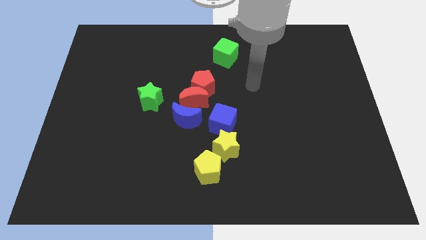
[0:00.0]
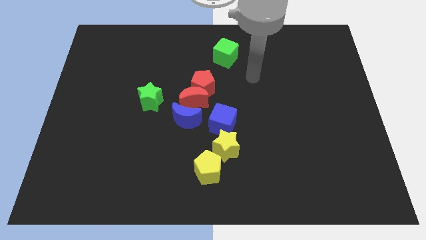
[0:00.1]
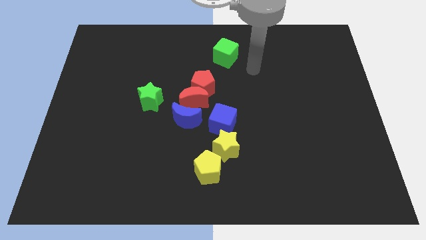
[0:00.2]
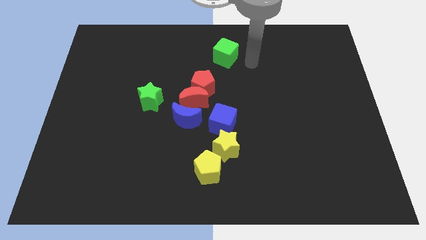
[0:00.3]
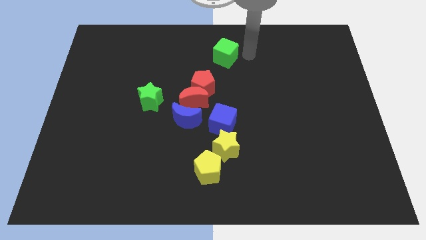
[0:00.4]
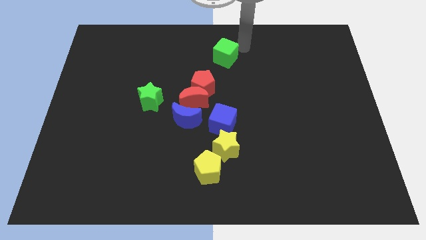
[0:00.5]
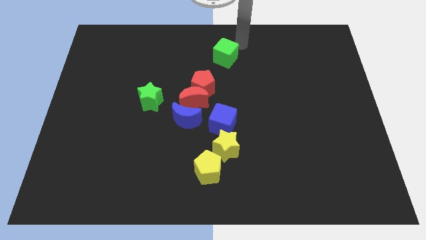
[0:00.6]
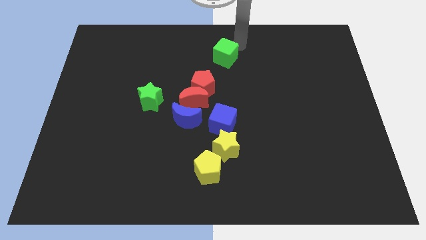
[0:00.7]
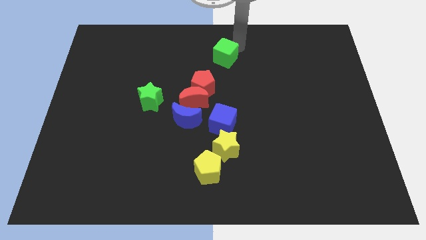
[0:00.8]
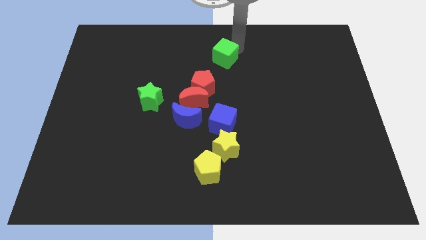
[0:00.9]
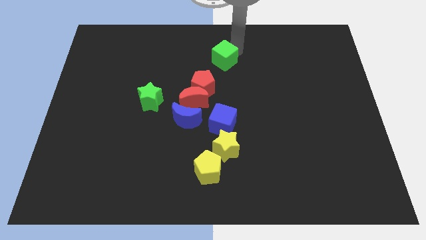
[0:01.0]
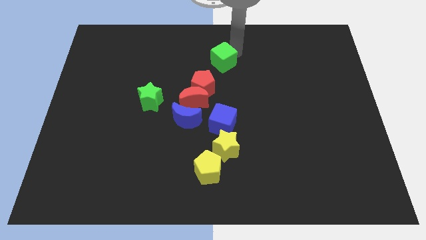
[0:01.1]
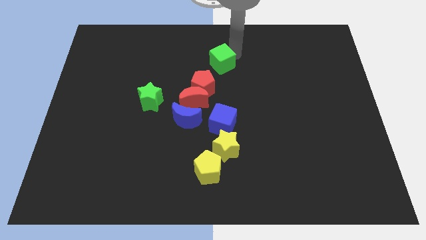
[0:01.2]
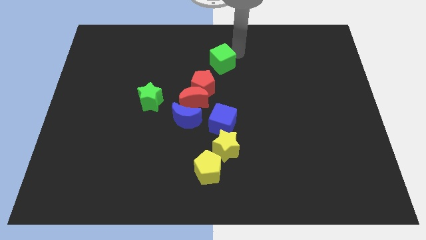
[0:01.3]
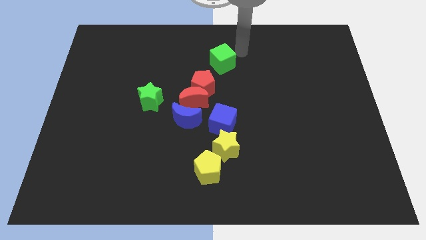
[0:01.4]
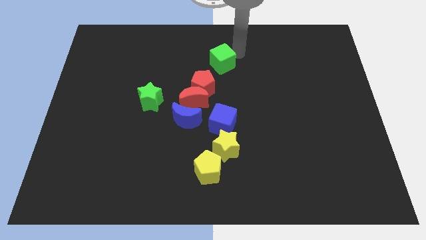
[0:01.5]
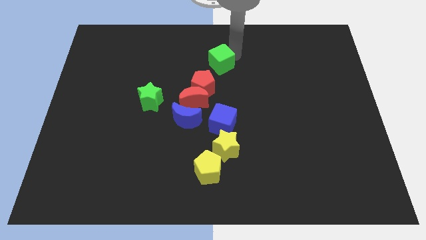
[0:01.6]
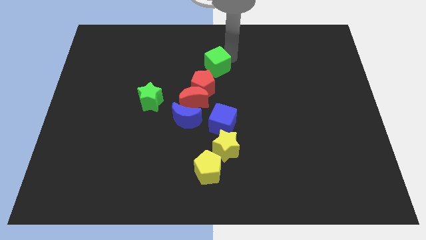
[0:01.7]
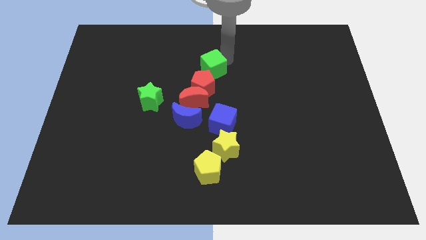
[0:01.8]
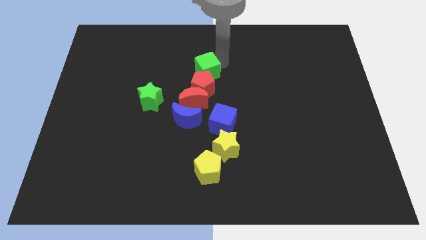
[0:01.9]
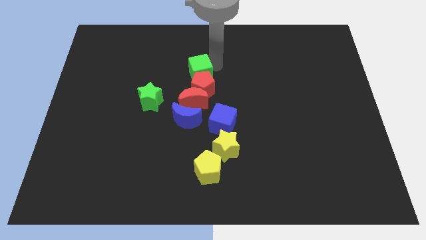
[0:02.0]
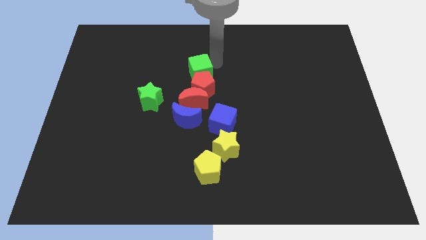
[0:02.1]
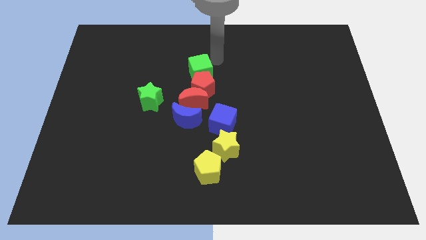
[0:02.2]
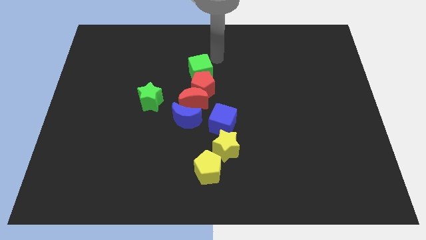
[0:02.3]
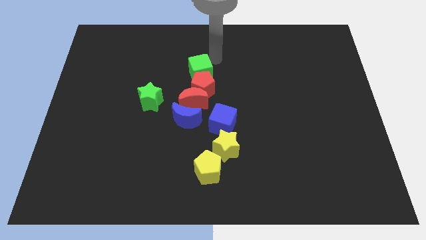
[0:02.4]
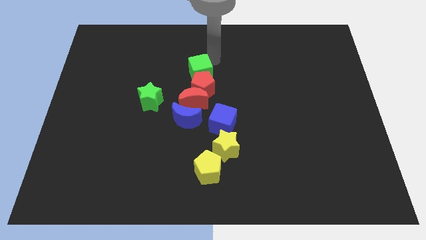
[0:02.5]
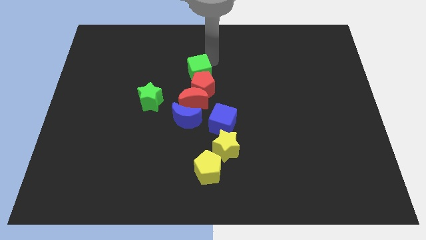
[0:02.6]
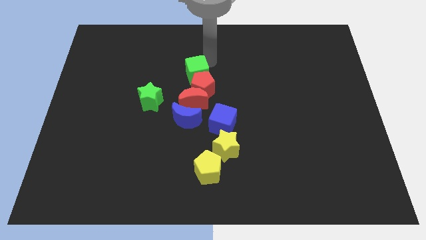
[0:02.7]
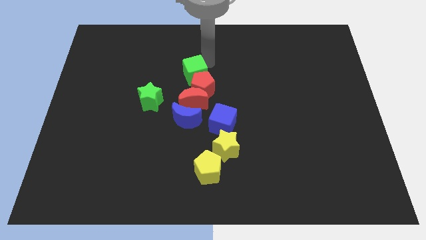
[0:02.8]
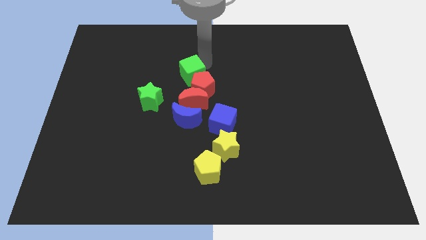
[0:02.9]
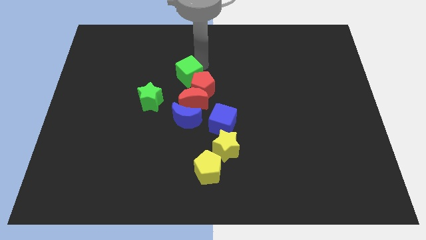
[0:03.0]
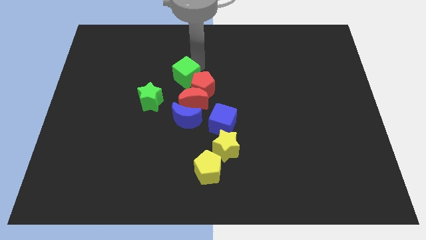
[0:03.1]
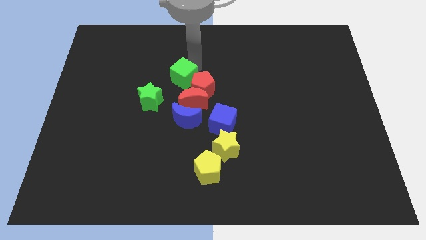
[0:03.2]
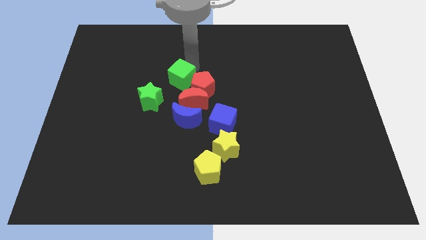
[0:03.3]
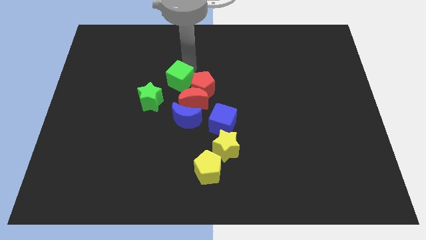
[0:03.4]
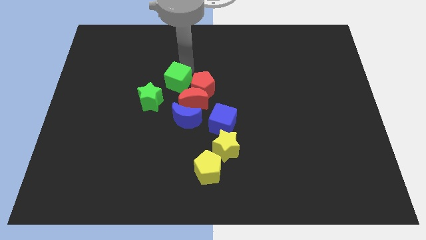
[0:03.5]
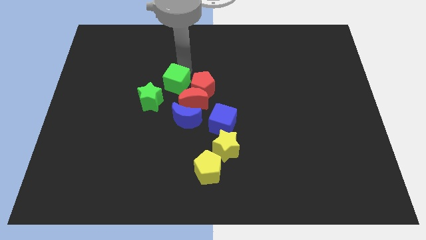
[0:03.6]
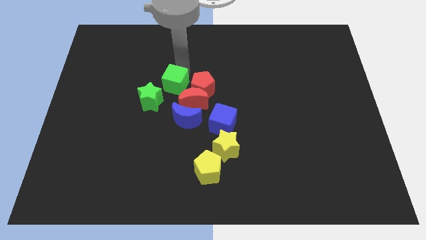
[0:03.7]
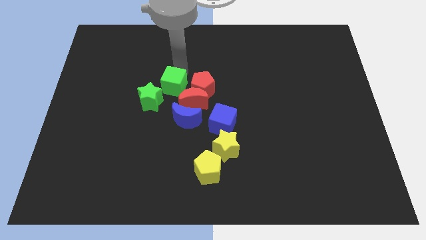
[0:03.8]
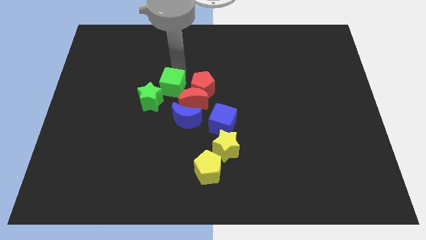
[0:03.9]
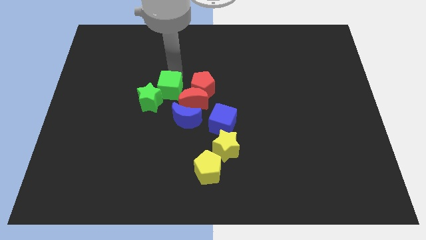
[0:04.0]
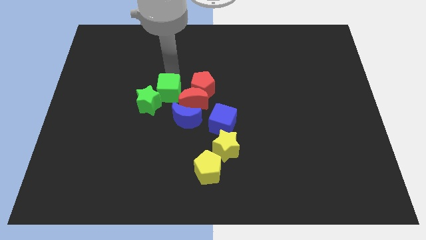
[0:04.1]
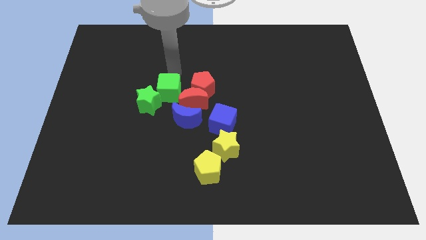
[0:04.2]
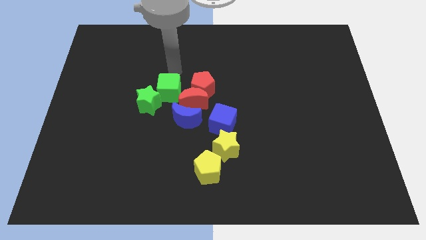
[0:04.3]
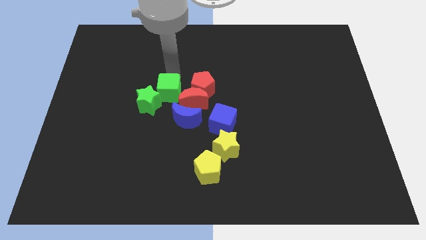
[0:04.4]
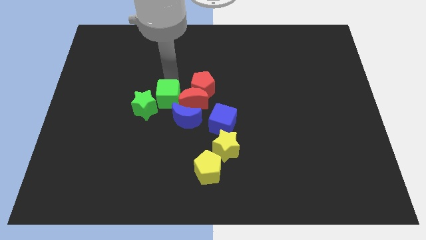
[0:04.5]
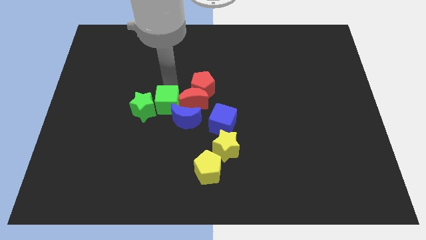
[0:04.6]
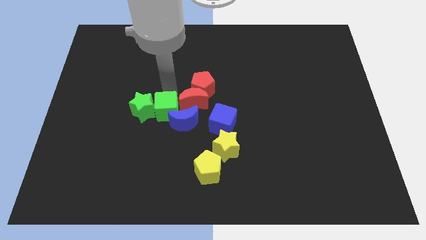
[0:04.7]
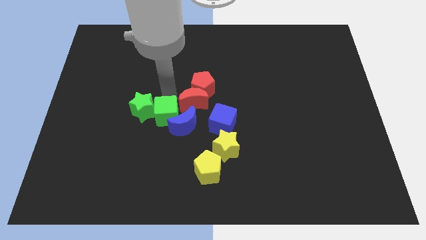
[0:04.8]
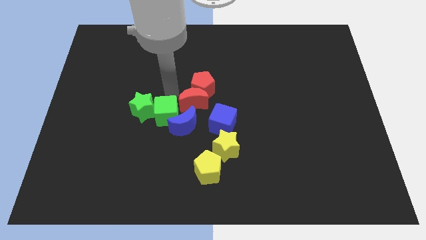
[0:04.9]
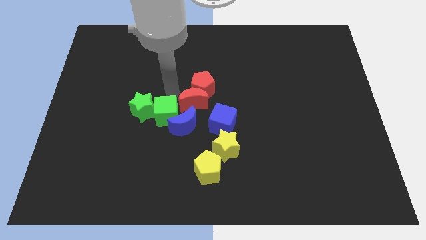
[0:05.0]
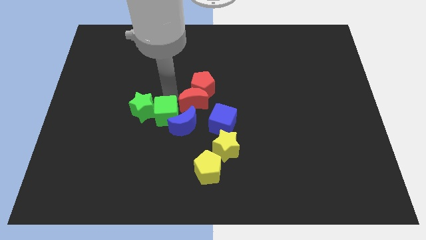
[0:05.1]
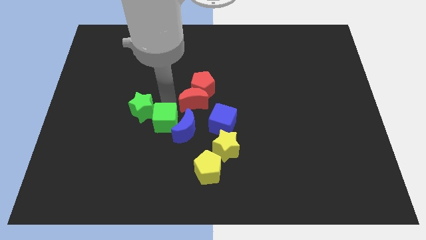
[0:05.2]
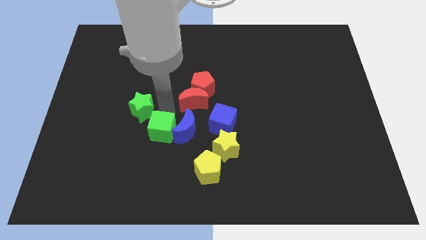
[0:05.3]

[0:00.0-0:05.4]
slide the green cube to the bottom left of the blue moon

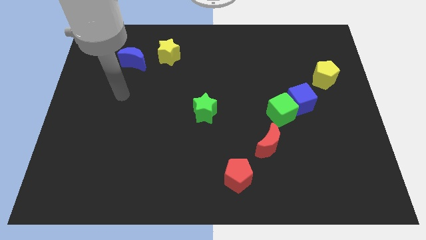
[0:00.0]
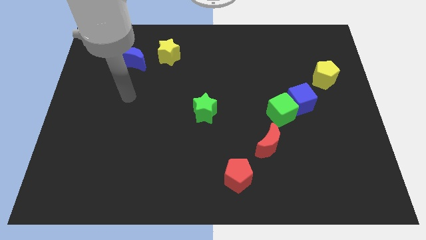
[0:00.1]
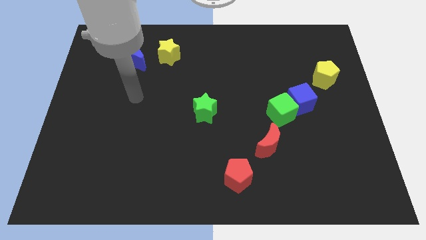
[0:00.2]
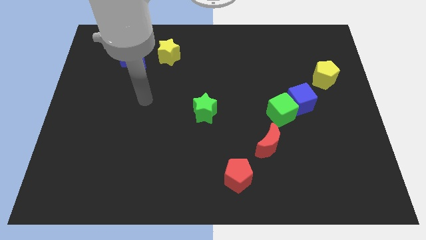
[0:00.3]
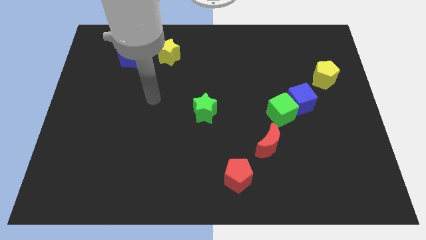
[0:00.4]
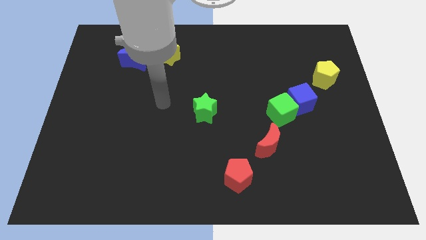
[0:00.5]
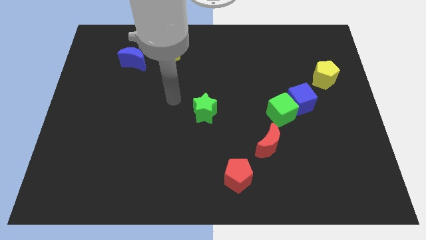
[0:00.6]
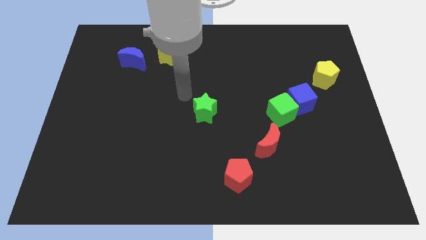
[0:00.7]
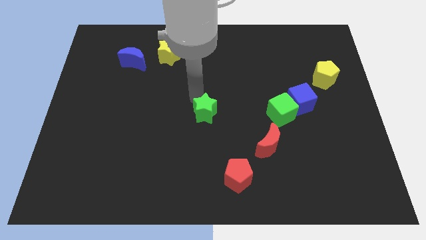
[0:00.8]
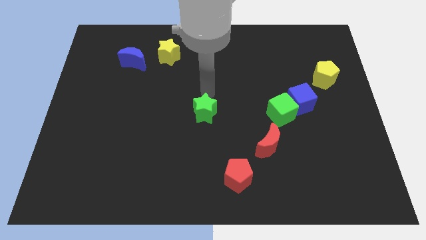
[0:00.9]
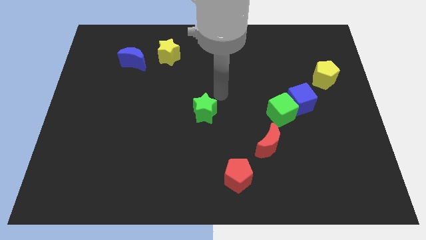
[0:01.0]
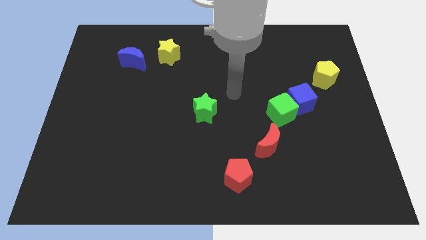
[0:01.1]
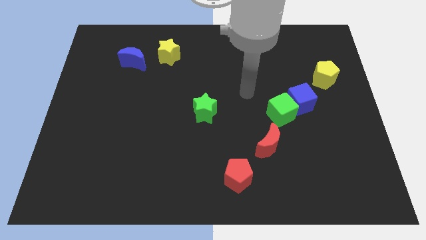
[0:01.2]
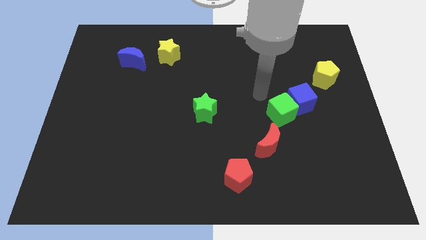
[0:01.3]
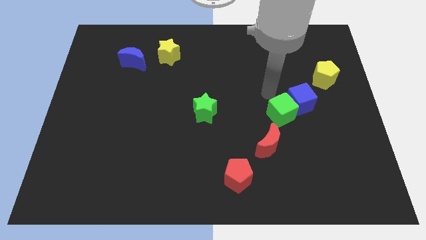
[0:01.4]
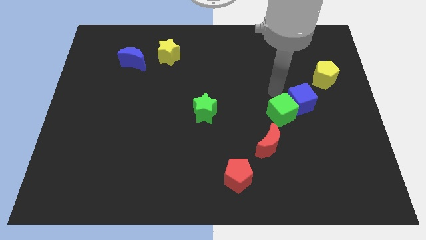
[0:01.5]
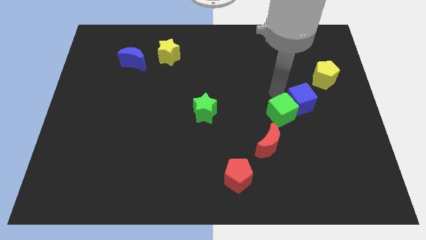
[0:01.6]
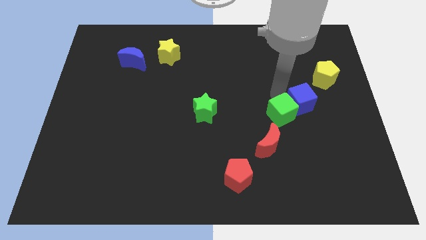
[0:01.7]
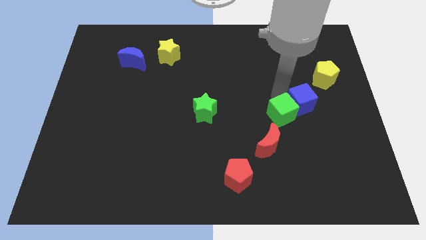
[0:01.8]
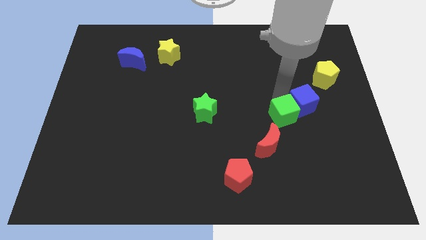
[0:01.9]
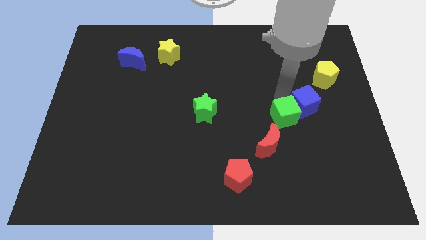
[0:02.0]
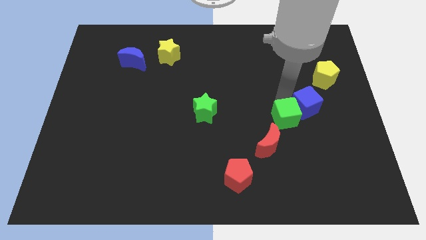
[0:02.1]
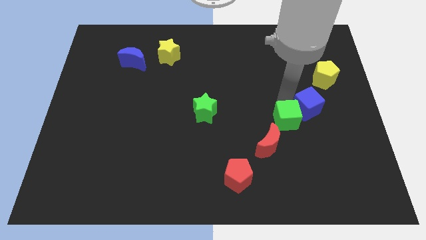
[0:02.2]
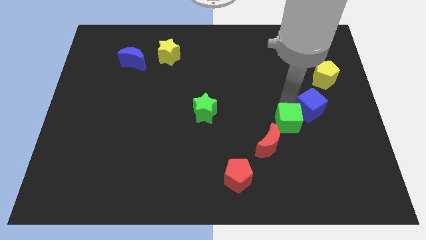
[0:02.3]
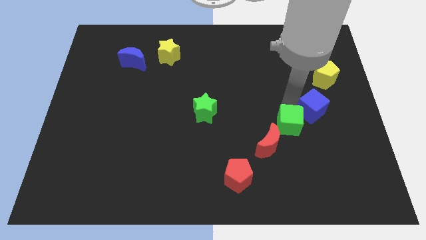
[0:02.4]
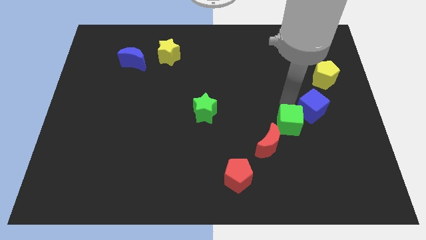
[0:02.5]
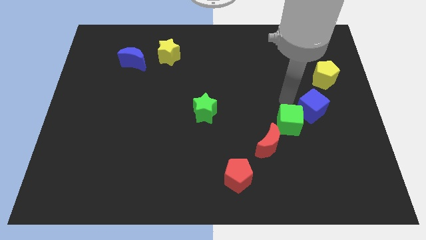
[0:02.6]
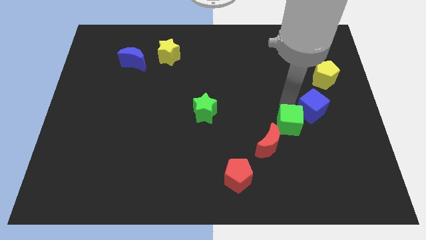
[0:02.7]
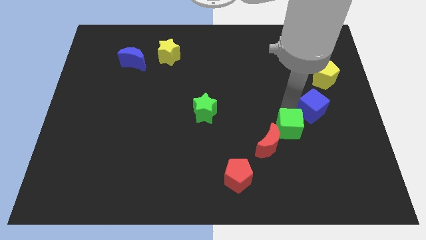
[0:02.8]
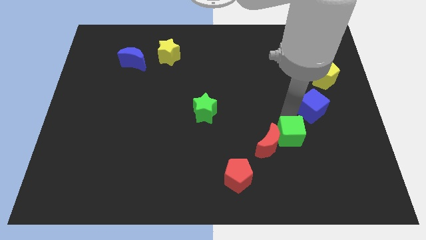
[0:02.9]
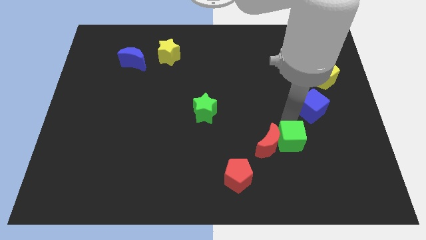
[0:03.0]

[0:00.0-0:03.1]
move the green cube to the bottom right side of the red moon
